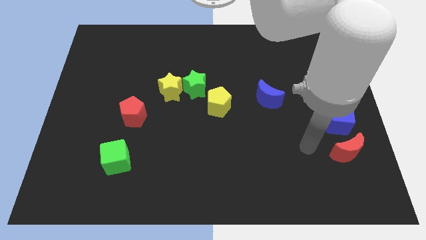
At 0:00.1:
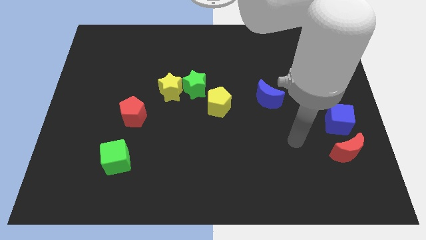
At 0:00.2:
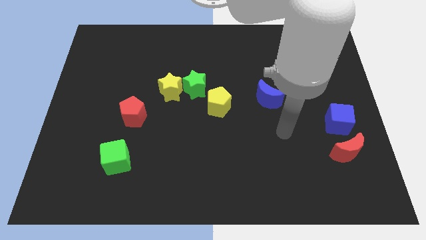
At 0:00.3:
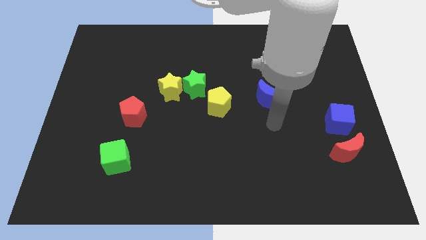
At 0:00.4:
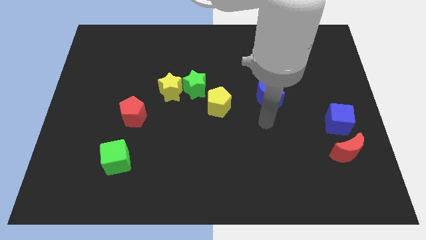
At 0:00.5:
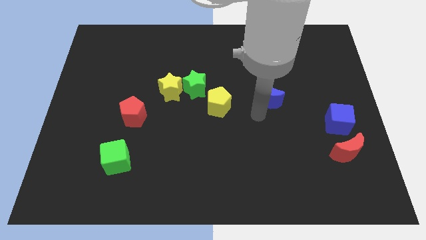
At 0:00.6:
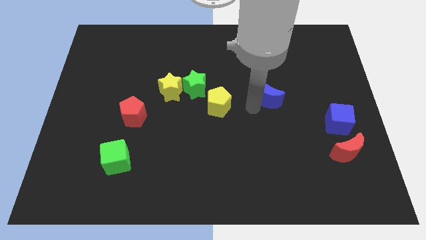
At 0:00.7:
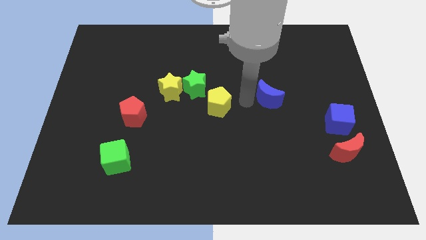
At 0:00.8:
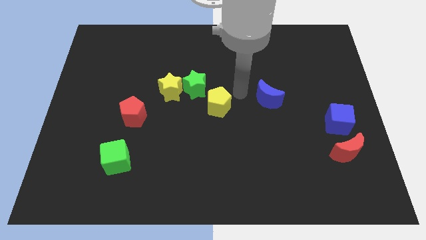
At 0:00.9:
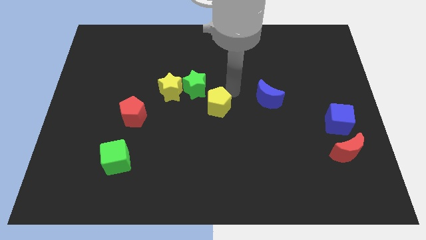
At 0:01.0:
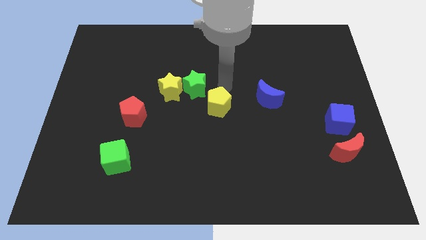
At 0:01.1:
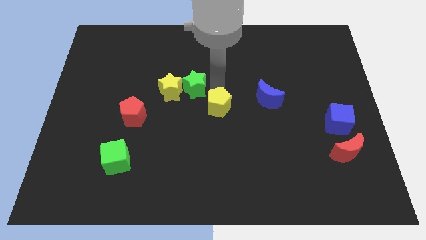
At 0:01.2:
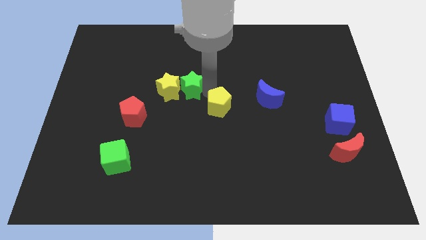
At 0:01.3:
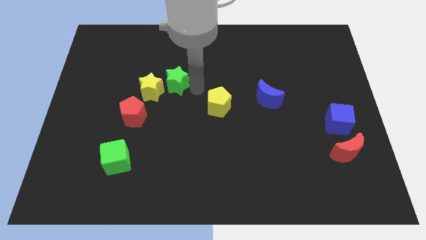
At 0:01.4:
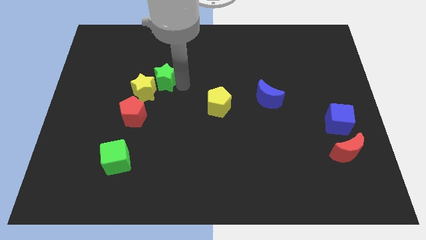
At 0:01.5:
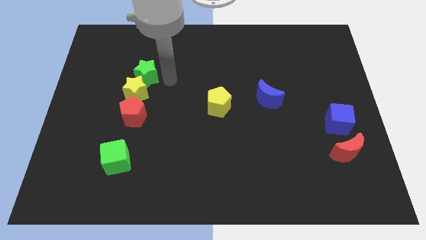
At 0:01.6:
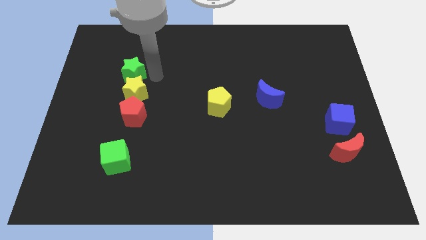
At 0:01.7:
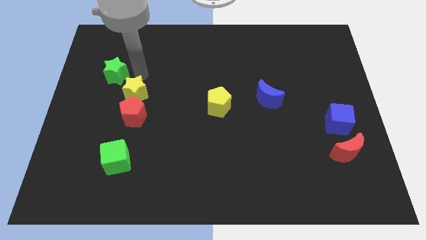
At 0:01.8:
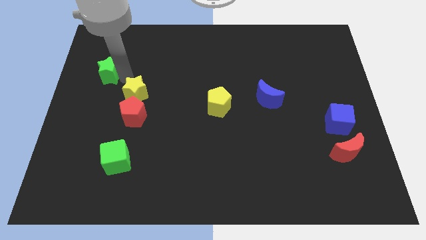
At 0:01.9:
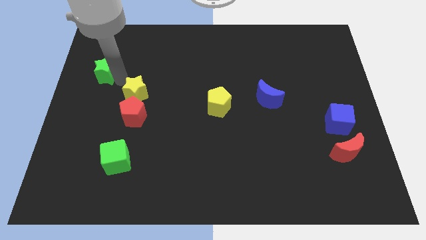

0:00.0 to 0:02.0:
move the yellow star away from the green star

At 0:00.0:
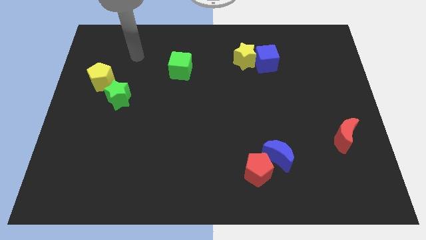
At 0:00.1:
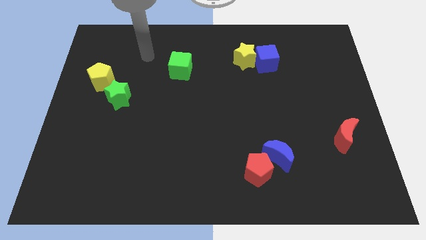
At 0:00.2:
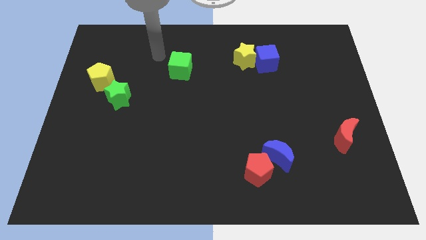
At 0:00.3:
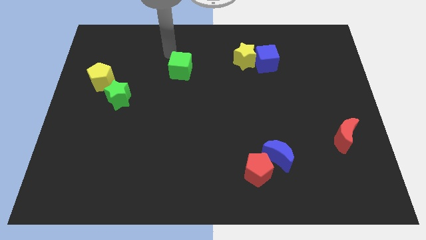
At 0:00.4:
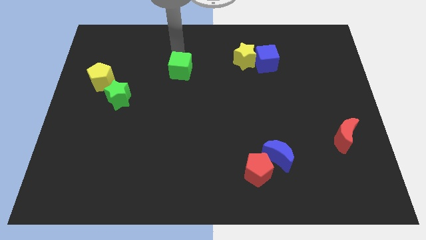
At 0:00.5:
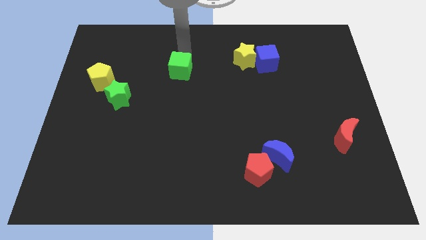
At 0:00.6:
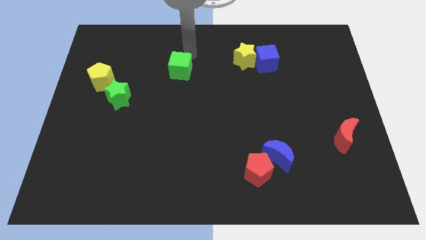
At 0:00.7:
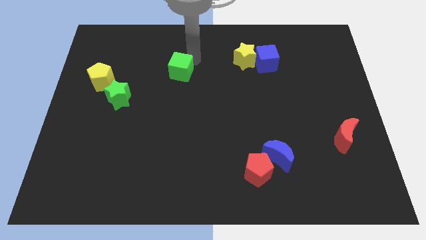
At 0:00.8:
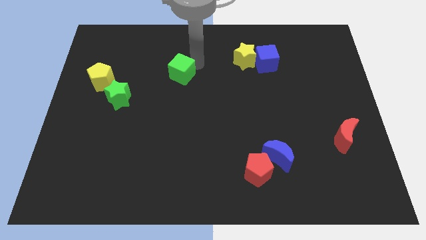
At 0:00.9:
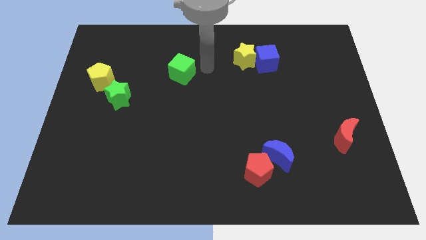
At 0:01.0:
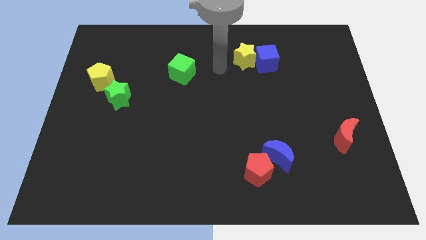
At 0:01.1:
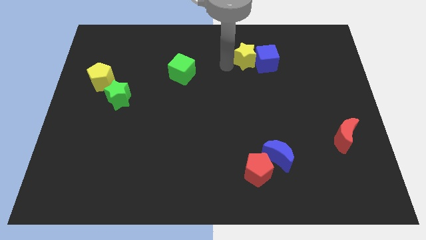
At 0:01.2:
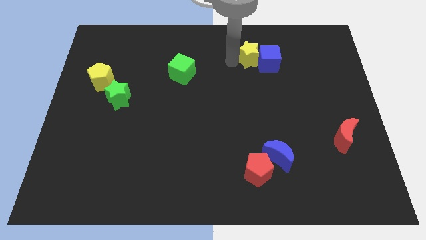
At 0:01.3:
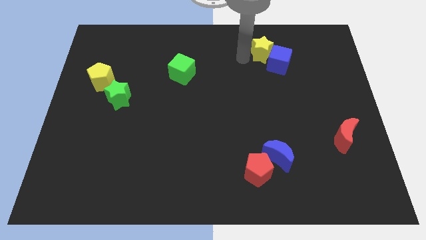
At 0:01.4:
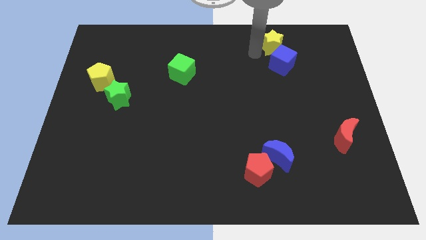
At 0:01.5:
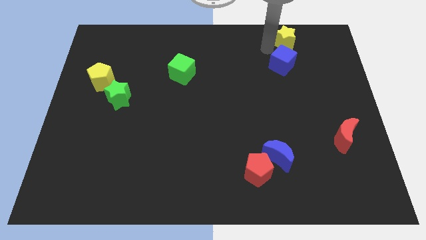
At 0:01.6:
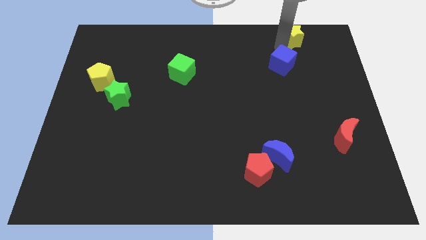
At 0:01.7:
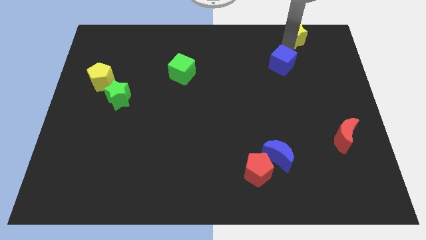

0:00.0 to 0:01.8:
move the blue cube away from the yellow star

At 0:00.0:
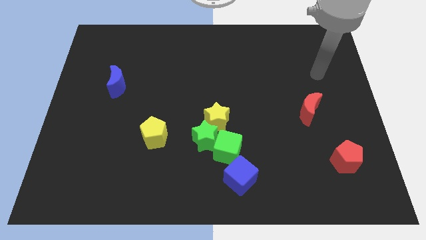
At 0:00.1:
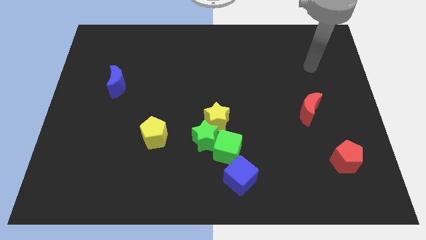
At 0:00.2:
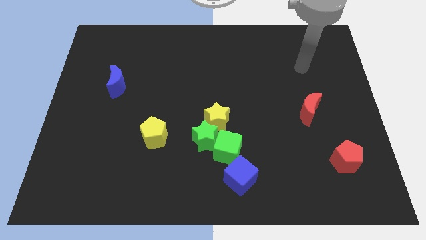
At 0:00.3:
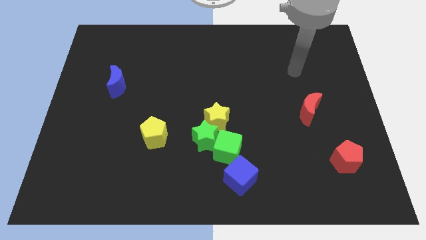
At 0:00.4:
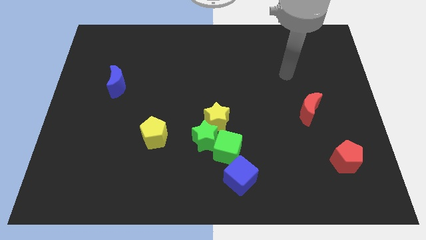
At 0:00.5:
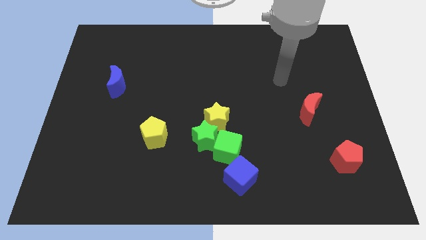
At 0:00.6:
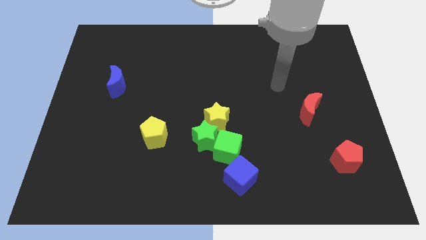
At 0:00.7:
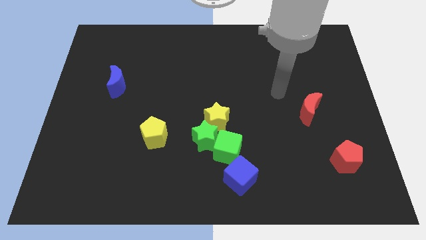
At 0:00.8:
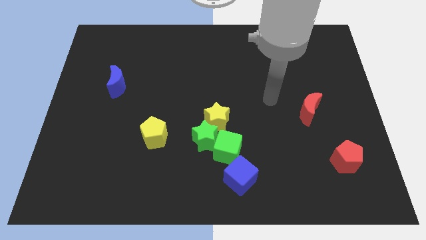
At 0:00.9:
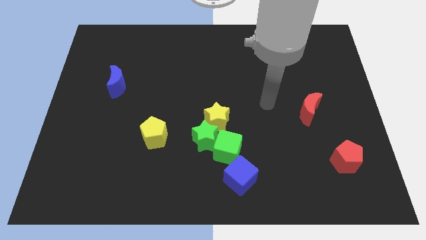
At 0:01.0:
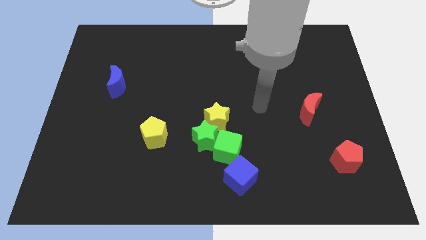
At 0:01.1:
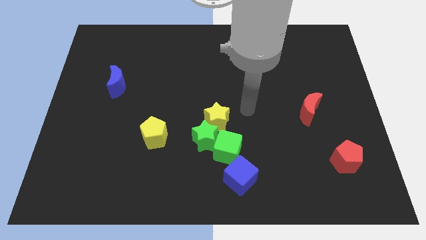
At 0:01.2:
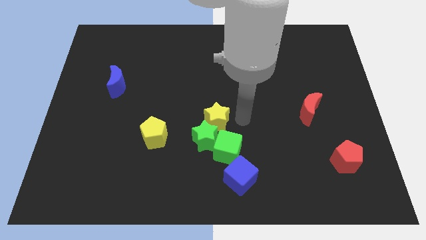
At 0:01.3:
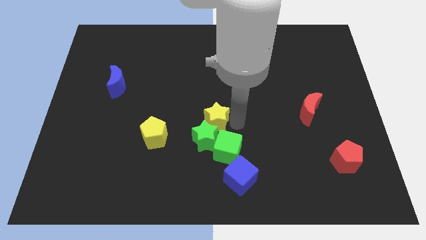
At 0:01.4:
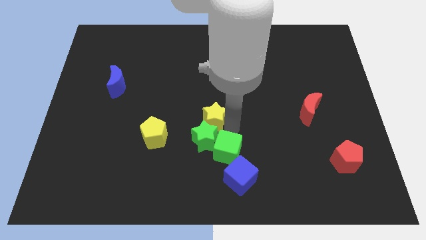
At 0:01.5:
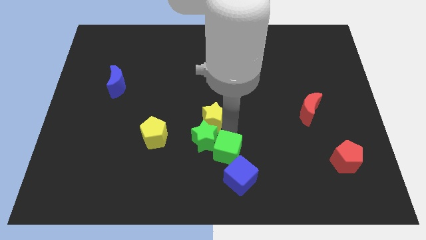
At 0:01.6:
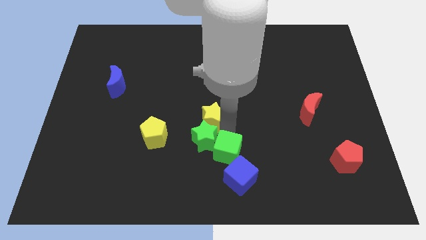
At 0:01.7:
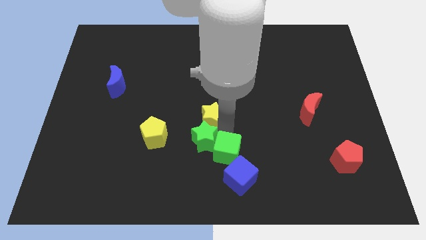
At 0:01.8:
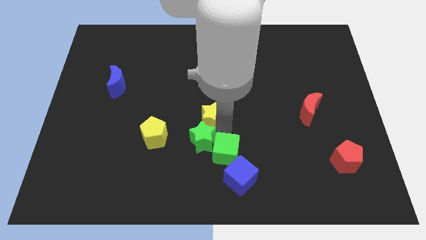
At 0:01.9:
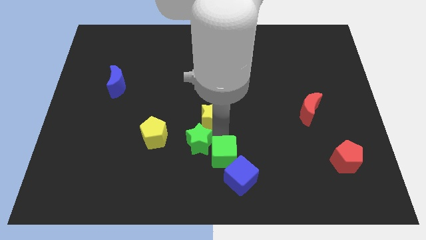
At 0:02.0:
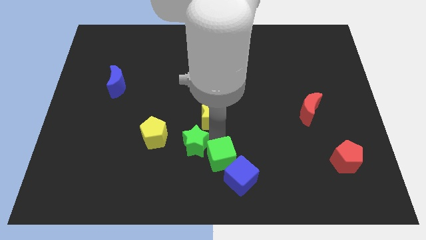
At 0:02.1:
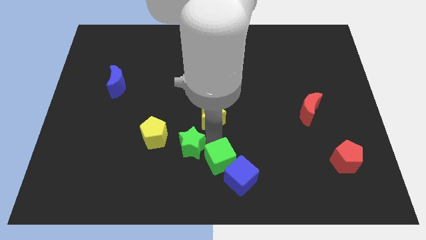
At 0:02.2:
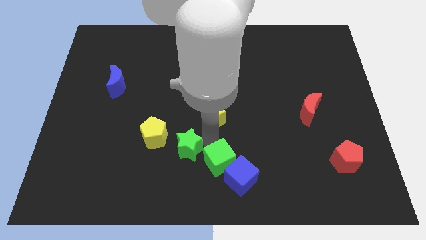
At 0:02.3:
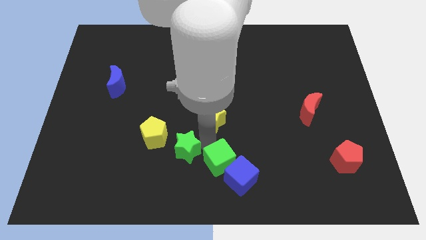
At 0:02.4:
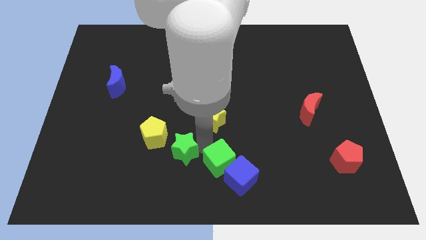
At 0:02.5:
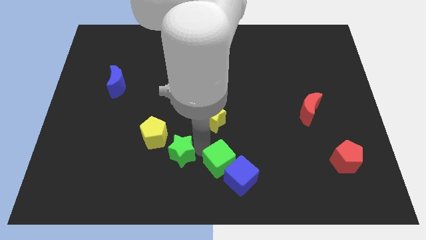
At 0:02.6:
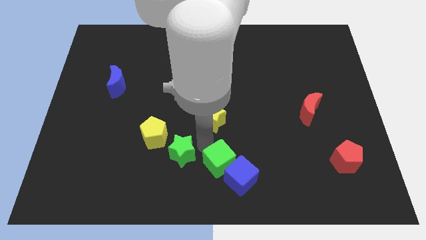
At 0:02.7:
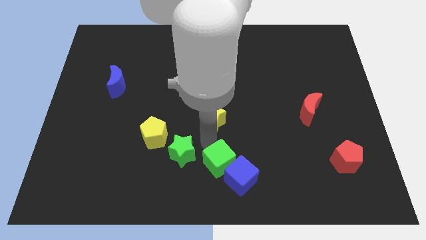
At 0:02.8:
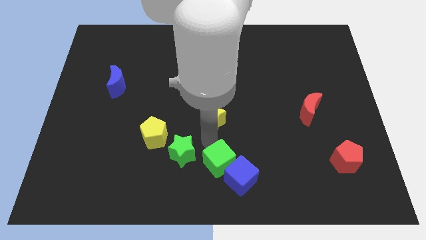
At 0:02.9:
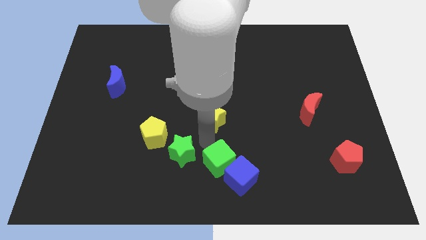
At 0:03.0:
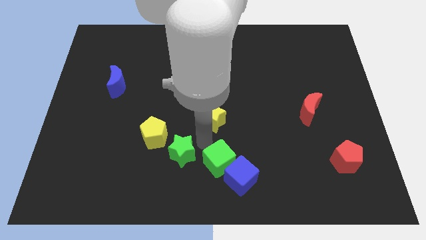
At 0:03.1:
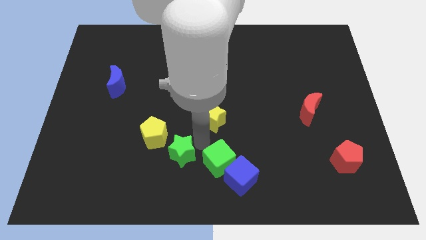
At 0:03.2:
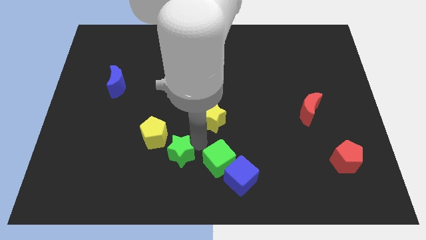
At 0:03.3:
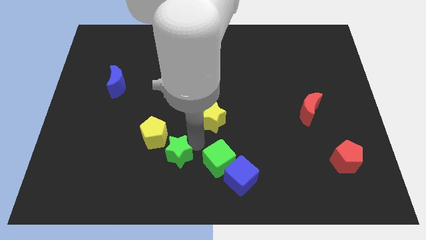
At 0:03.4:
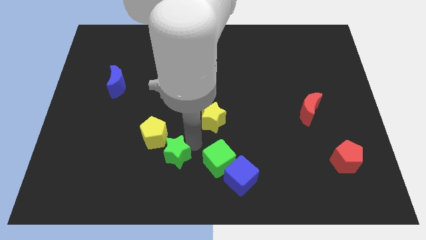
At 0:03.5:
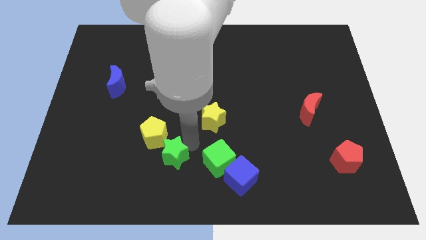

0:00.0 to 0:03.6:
pull the green star apart from the green cube and yellow star

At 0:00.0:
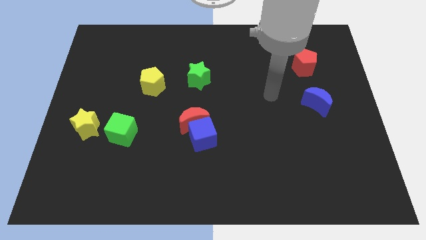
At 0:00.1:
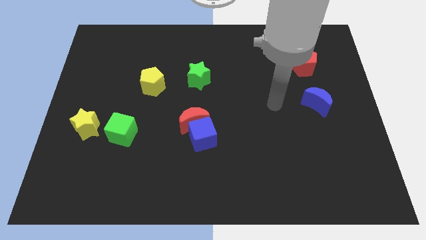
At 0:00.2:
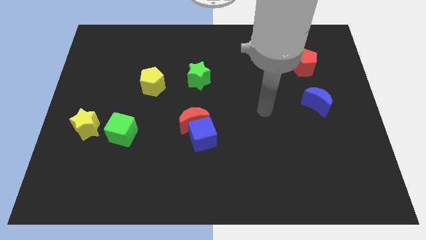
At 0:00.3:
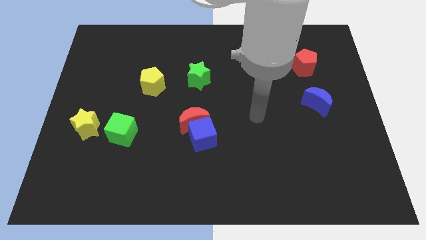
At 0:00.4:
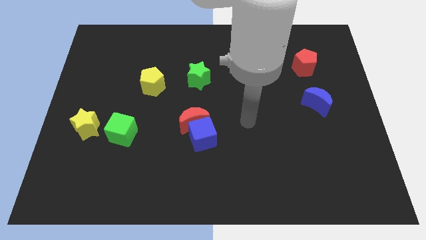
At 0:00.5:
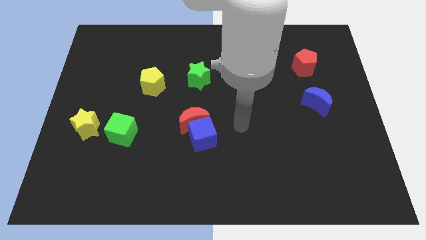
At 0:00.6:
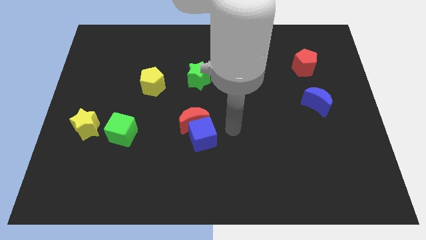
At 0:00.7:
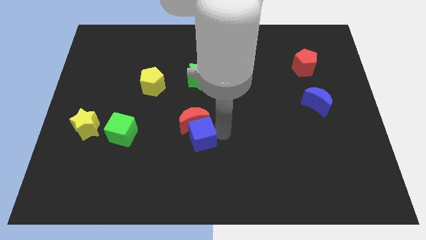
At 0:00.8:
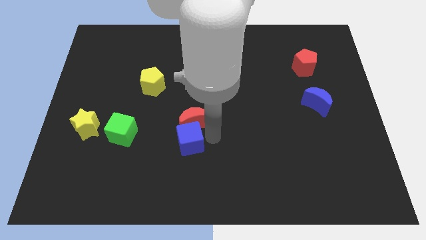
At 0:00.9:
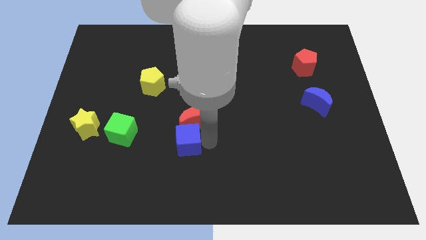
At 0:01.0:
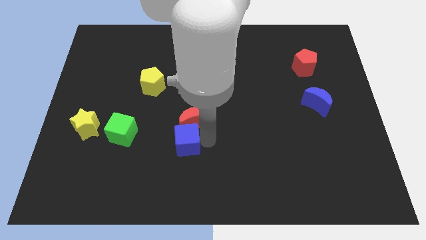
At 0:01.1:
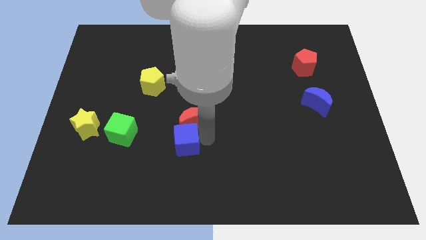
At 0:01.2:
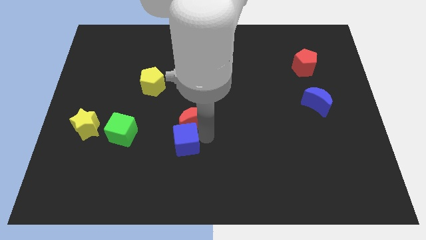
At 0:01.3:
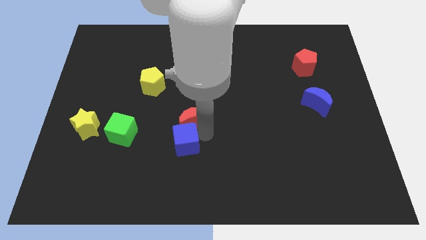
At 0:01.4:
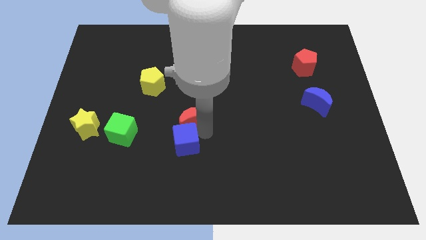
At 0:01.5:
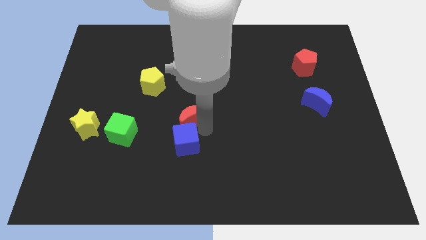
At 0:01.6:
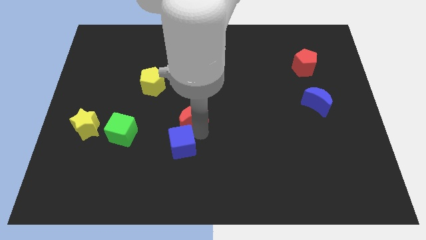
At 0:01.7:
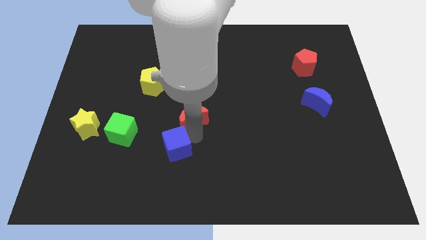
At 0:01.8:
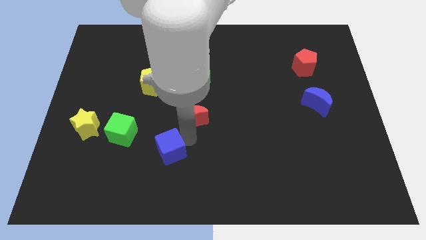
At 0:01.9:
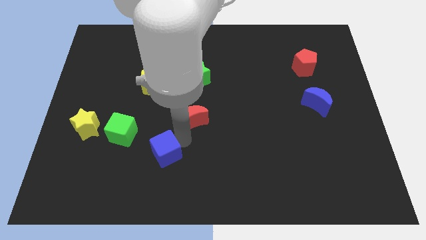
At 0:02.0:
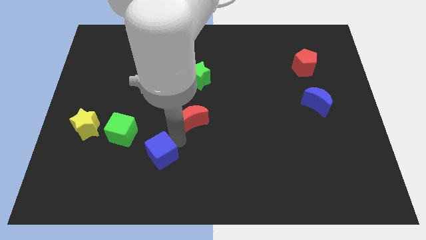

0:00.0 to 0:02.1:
separate the red moon from the blue cube
